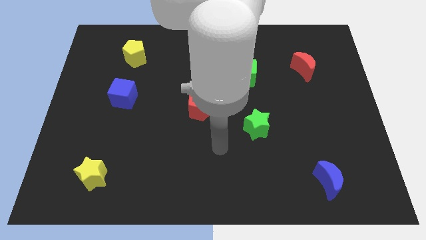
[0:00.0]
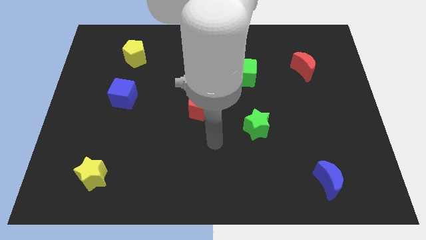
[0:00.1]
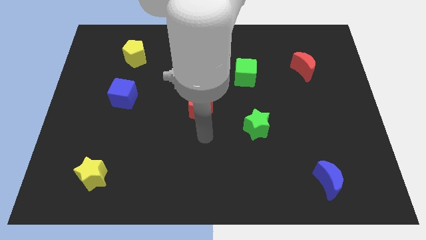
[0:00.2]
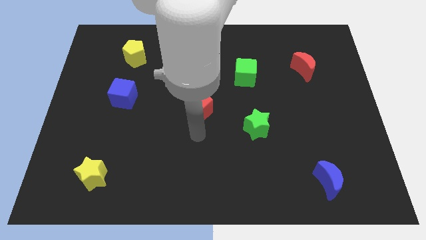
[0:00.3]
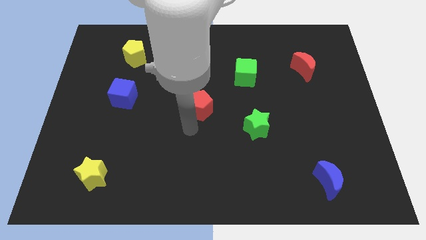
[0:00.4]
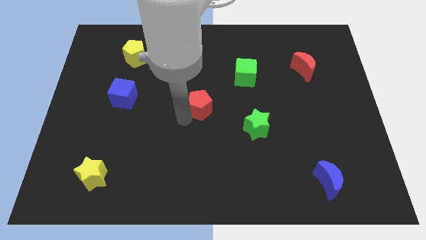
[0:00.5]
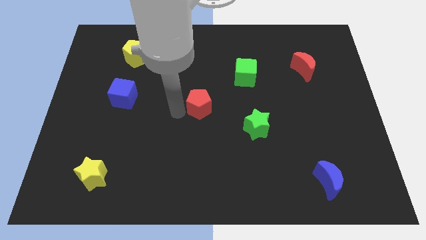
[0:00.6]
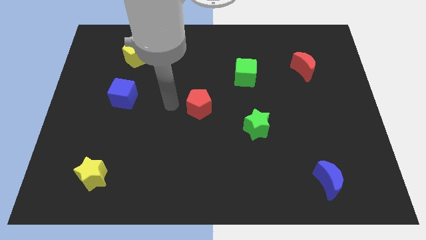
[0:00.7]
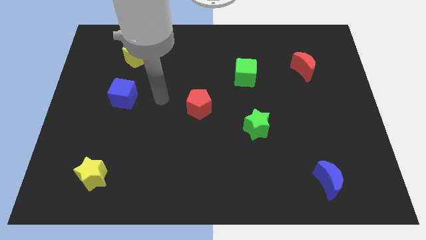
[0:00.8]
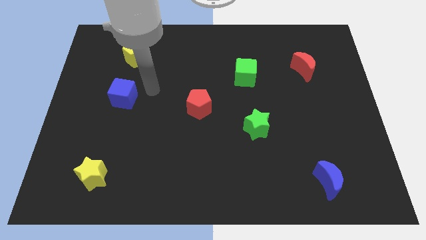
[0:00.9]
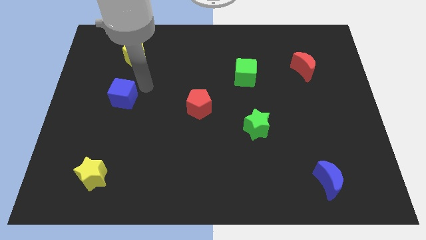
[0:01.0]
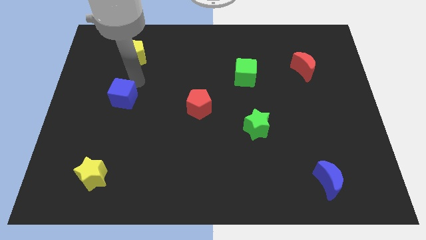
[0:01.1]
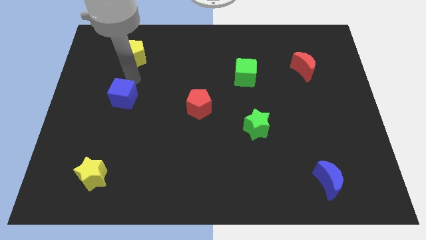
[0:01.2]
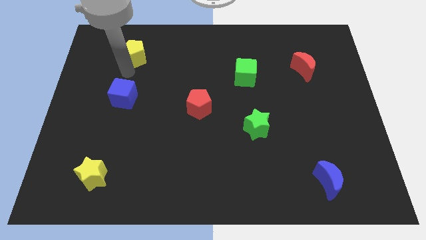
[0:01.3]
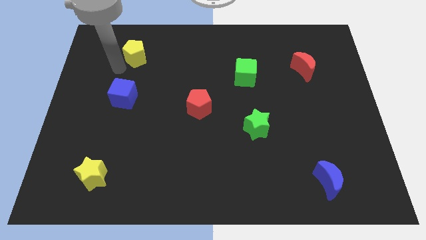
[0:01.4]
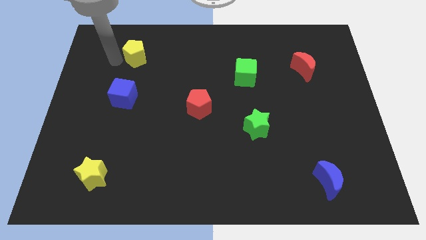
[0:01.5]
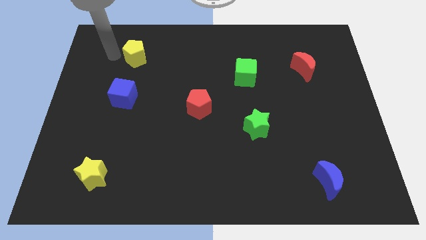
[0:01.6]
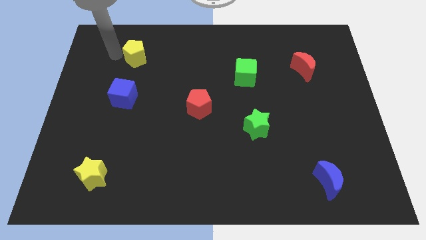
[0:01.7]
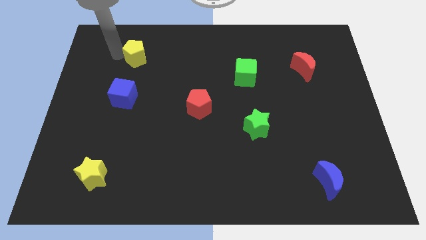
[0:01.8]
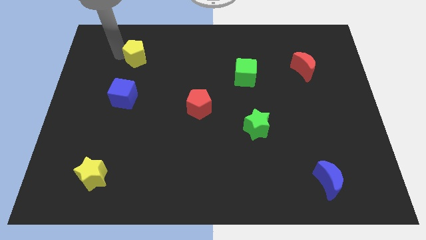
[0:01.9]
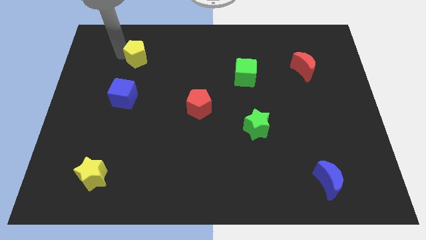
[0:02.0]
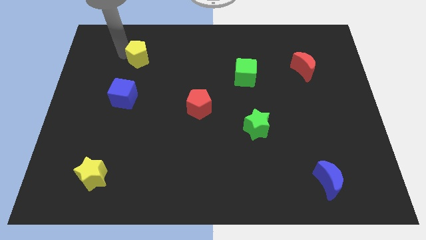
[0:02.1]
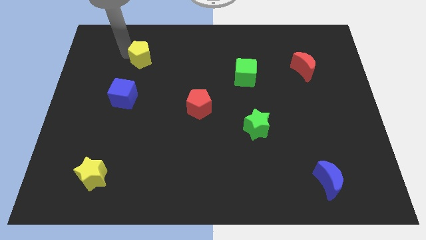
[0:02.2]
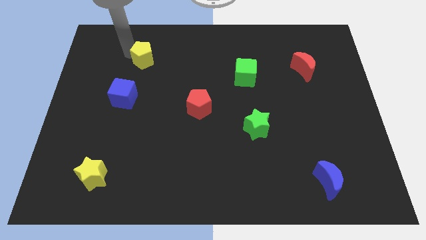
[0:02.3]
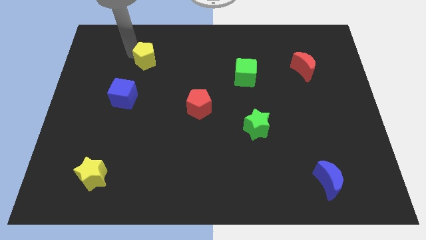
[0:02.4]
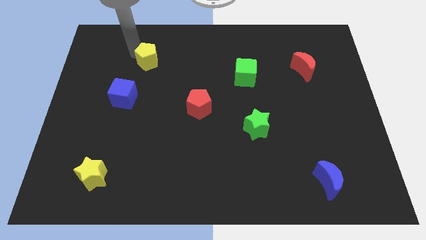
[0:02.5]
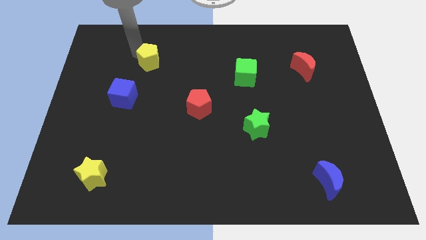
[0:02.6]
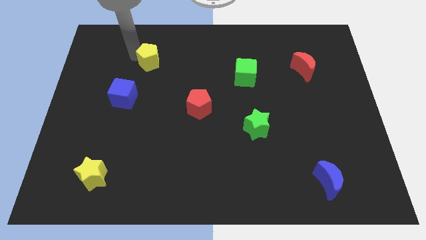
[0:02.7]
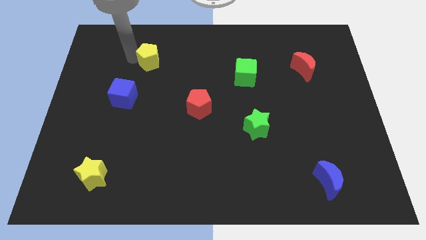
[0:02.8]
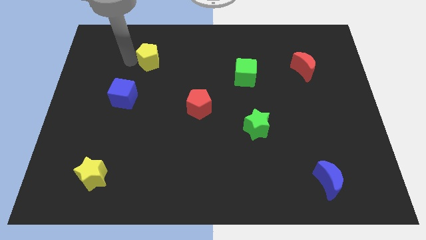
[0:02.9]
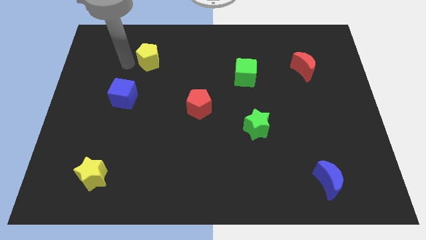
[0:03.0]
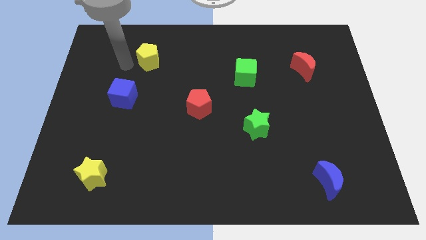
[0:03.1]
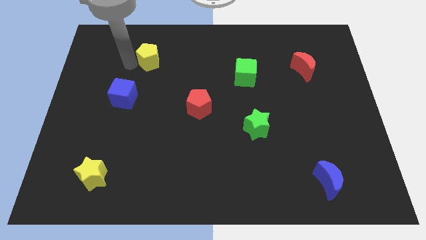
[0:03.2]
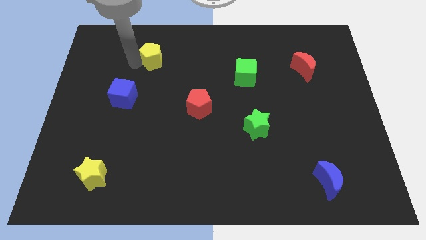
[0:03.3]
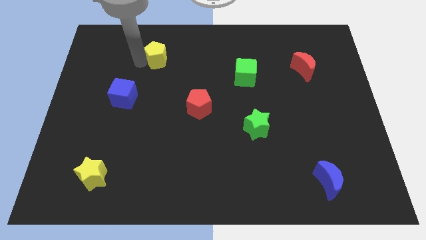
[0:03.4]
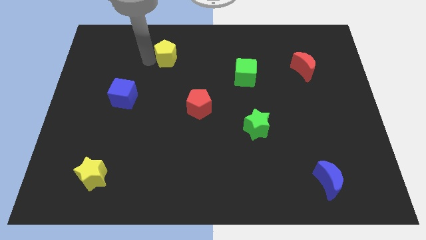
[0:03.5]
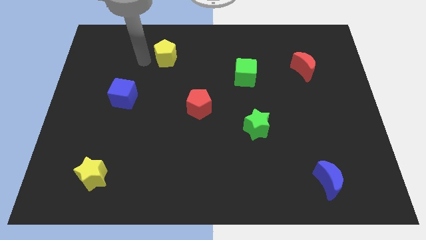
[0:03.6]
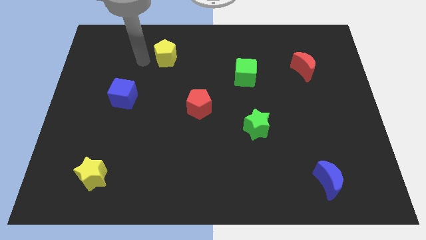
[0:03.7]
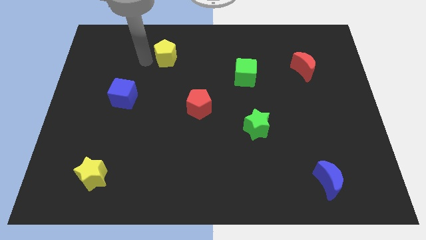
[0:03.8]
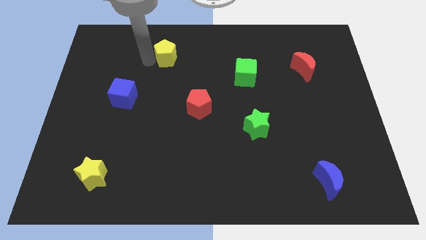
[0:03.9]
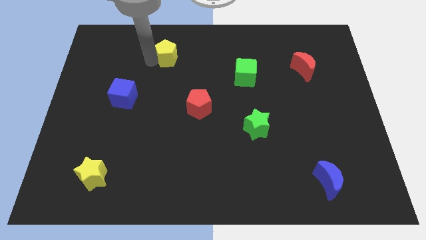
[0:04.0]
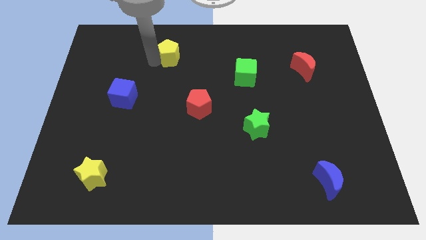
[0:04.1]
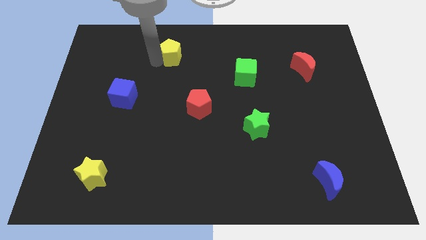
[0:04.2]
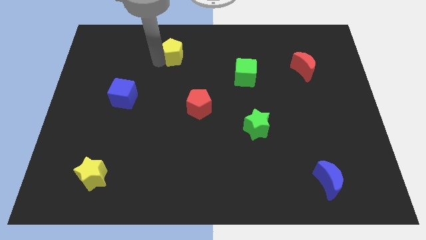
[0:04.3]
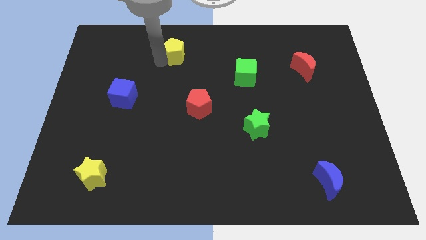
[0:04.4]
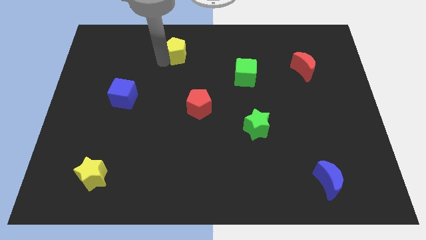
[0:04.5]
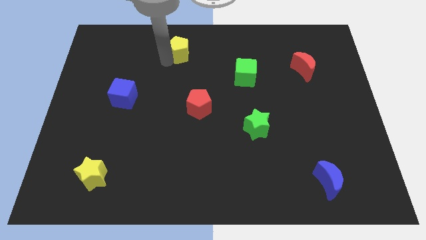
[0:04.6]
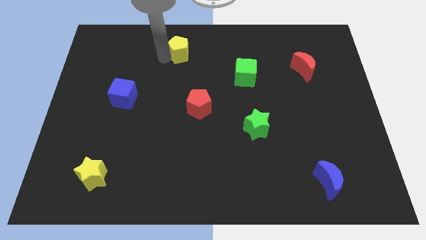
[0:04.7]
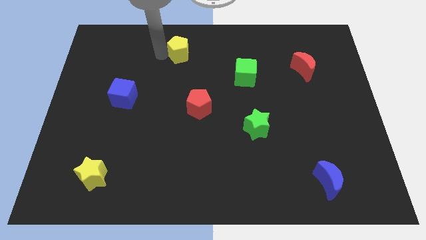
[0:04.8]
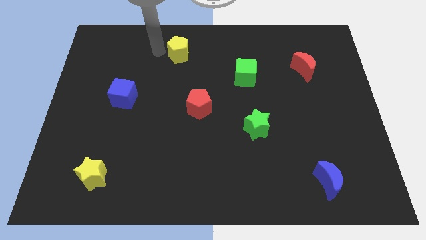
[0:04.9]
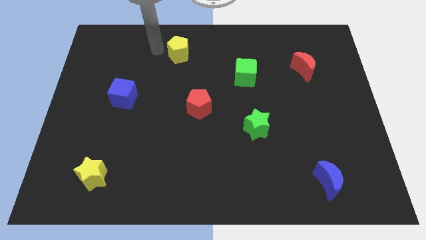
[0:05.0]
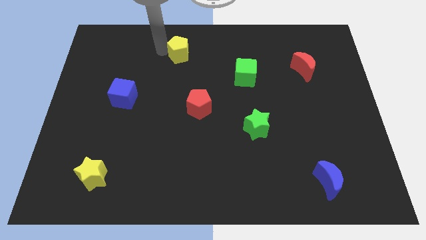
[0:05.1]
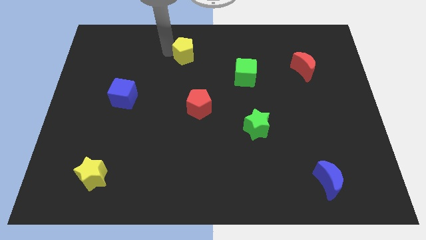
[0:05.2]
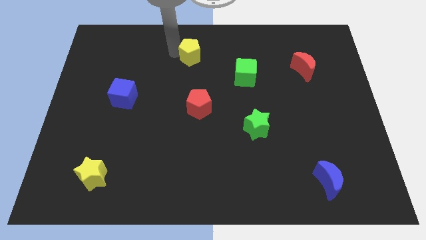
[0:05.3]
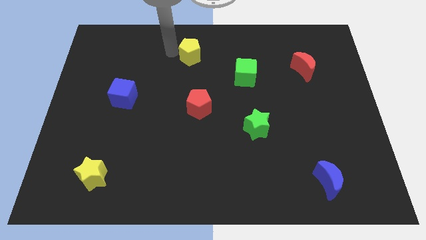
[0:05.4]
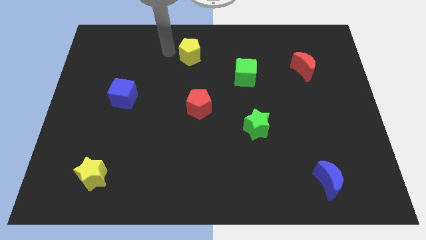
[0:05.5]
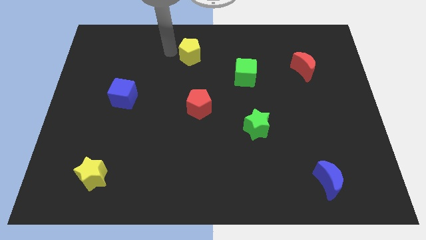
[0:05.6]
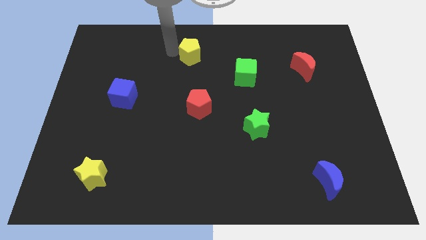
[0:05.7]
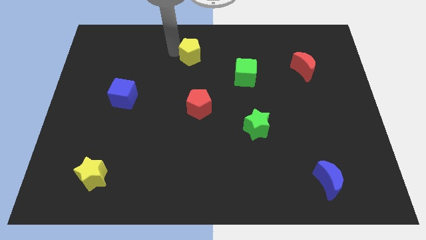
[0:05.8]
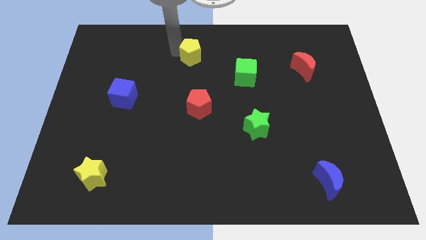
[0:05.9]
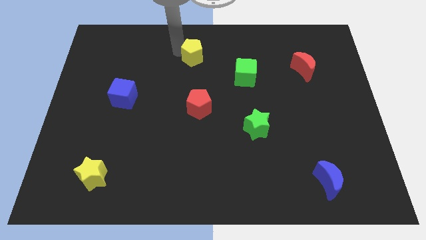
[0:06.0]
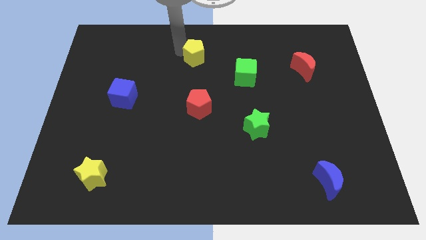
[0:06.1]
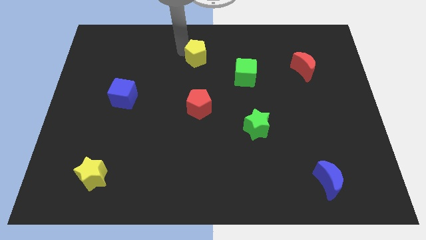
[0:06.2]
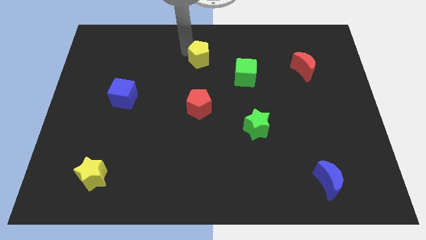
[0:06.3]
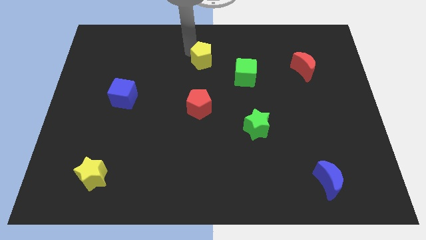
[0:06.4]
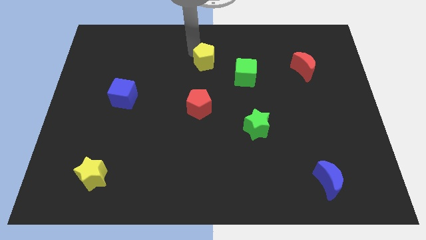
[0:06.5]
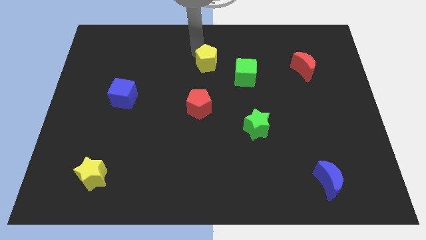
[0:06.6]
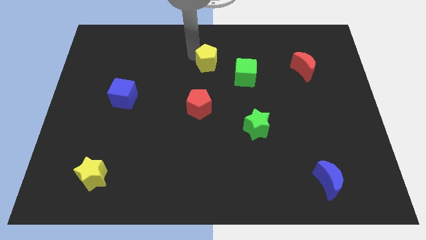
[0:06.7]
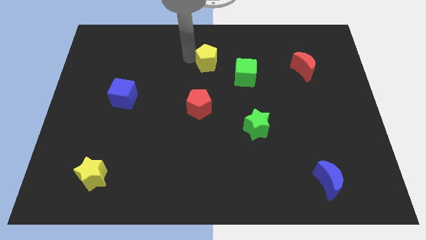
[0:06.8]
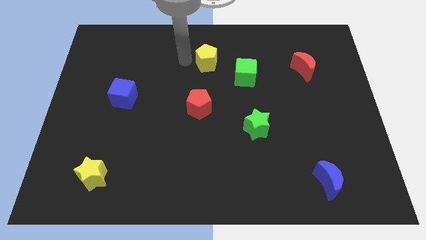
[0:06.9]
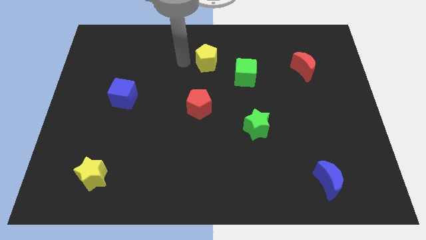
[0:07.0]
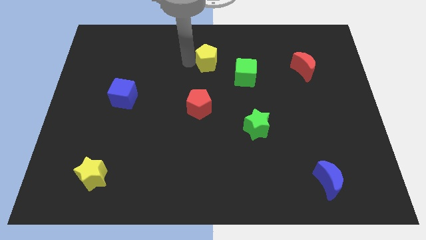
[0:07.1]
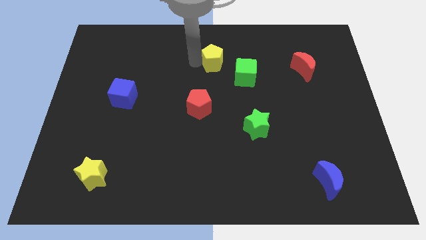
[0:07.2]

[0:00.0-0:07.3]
move the yellow pentagon to the right

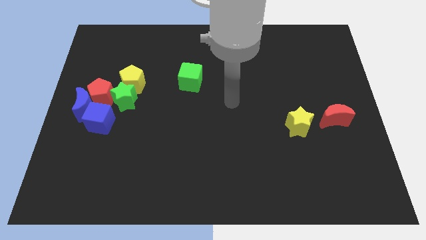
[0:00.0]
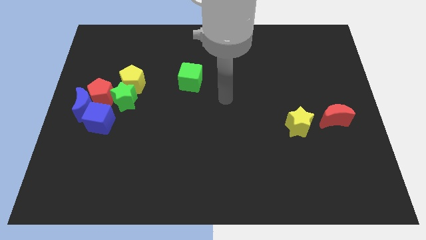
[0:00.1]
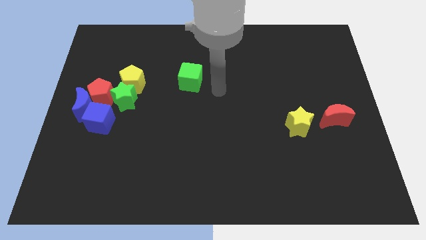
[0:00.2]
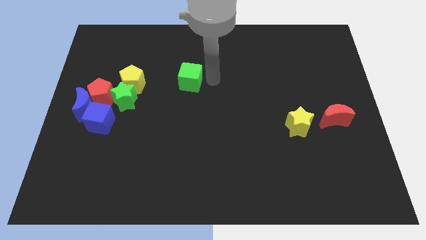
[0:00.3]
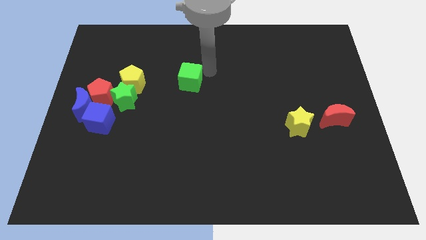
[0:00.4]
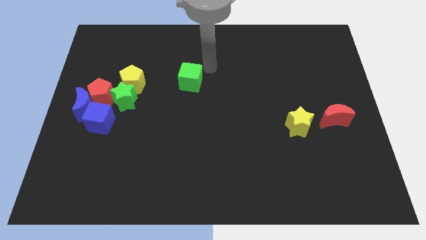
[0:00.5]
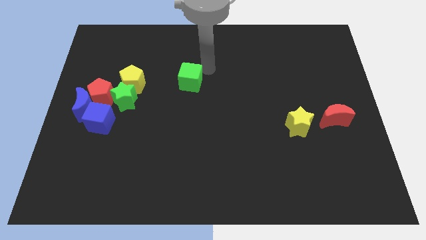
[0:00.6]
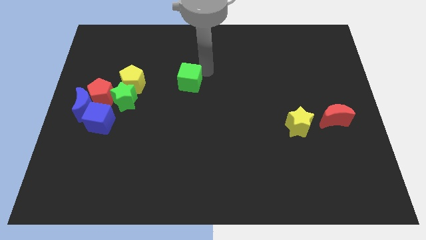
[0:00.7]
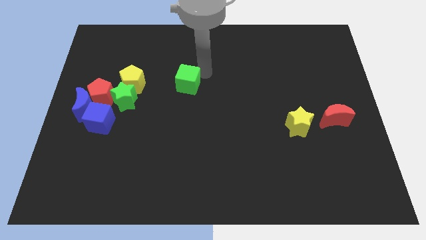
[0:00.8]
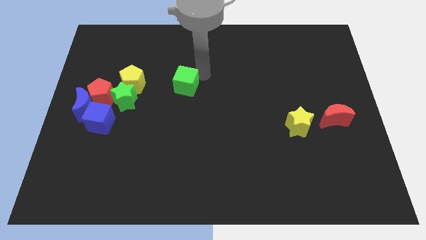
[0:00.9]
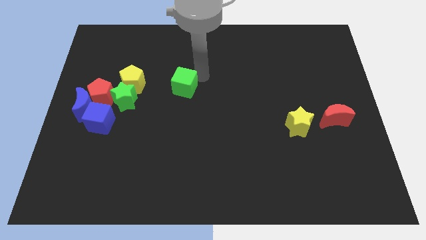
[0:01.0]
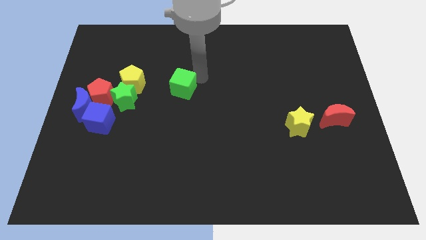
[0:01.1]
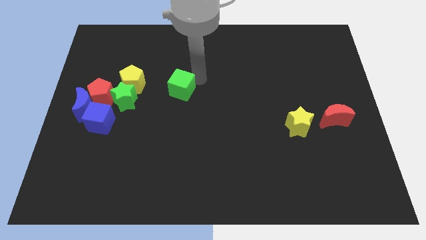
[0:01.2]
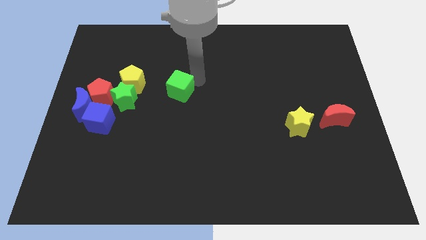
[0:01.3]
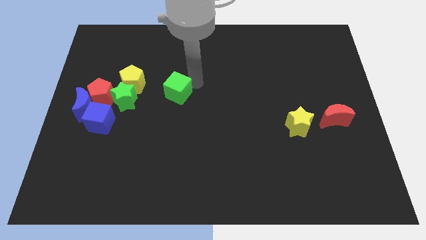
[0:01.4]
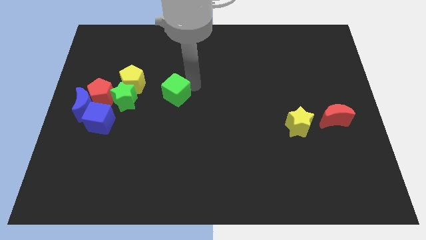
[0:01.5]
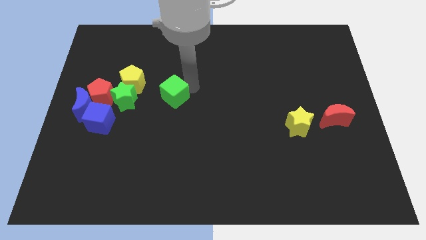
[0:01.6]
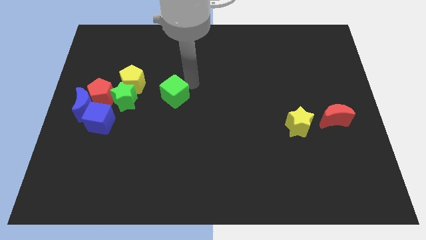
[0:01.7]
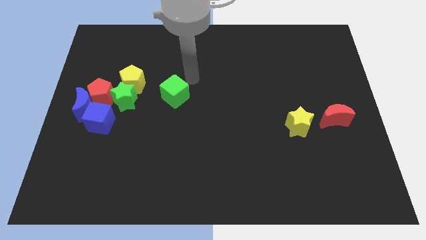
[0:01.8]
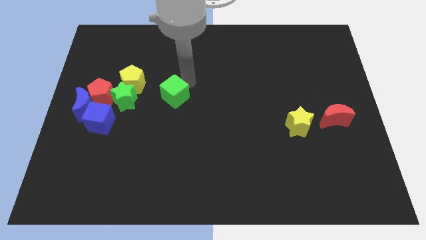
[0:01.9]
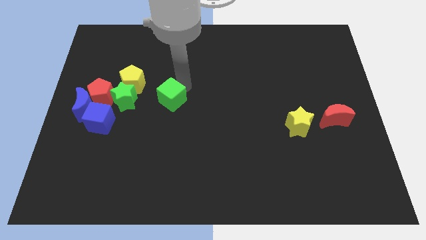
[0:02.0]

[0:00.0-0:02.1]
move the green cube down and left diagonally somewhat
